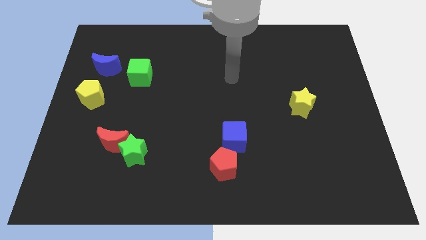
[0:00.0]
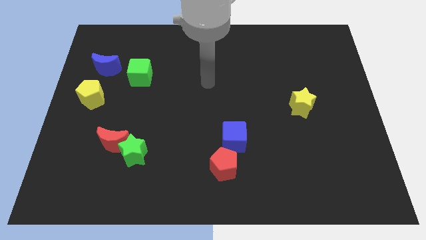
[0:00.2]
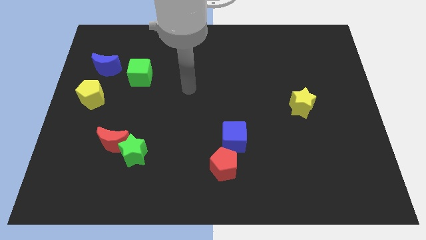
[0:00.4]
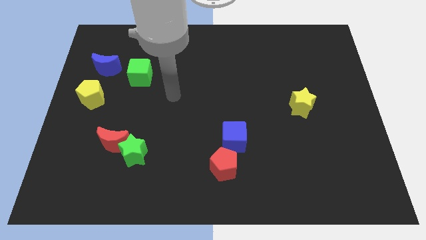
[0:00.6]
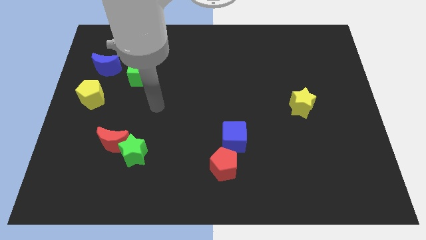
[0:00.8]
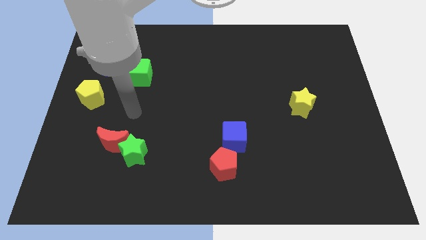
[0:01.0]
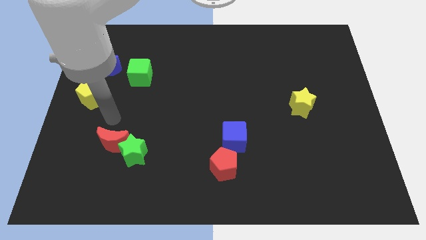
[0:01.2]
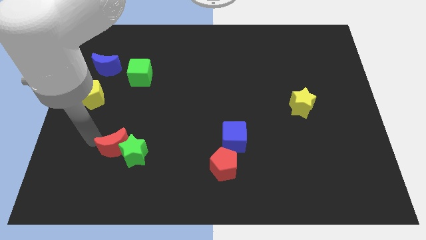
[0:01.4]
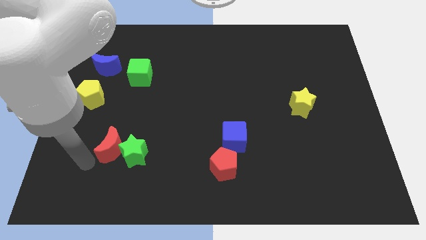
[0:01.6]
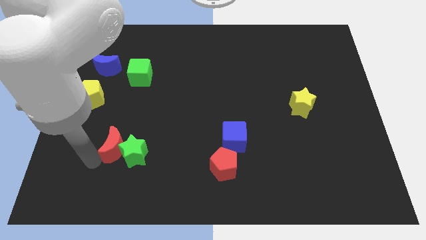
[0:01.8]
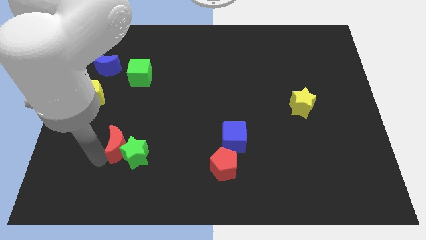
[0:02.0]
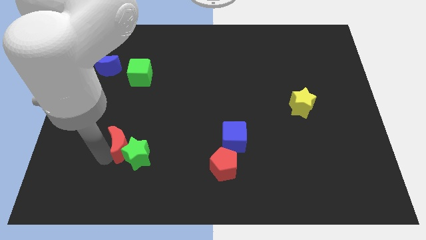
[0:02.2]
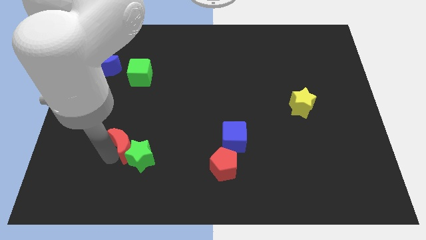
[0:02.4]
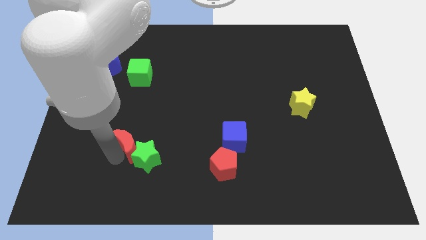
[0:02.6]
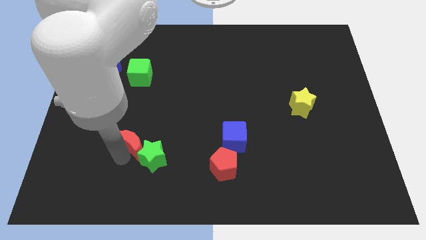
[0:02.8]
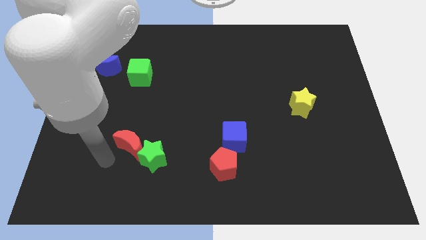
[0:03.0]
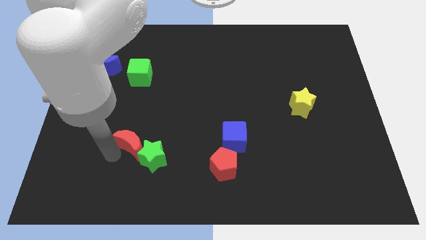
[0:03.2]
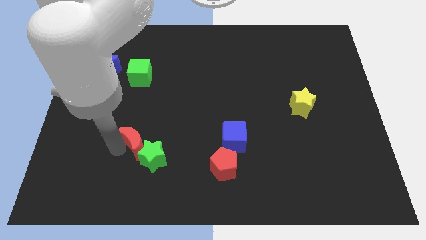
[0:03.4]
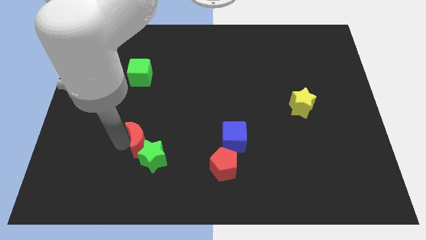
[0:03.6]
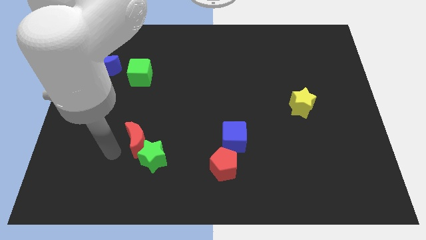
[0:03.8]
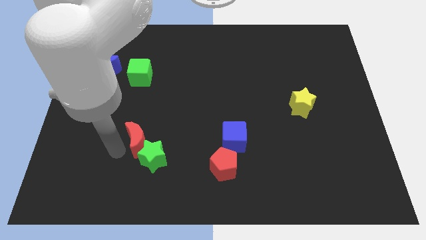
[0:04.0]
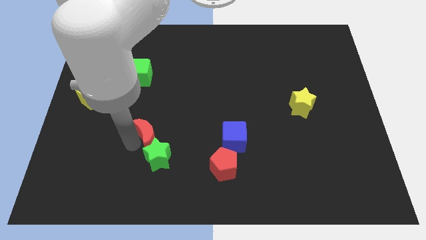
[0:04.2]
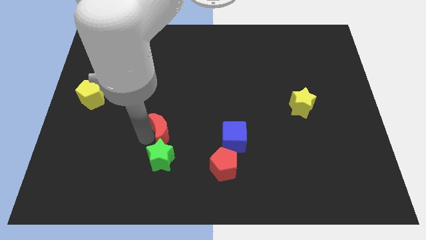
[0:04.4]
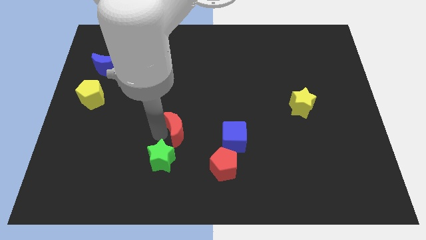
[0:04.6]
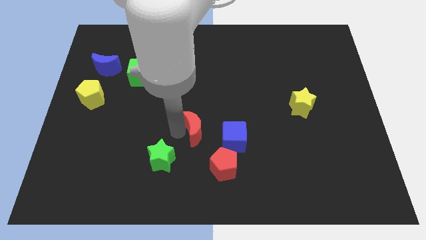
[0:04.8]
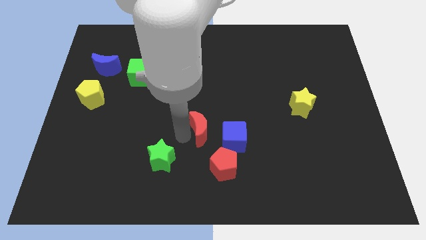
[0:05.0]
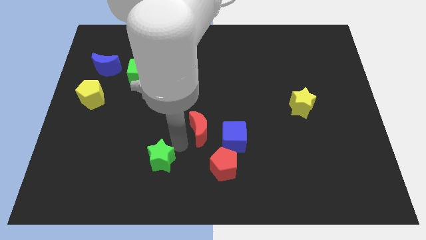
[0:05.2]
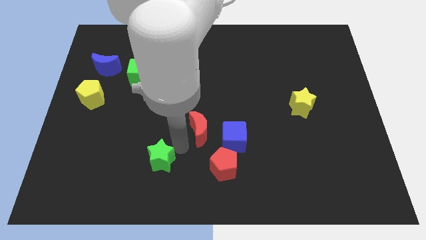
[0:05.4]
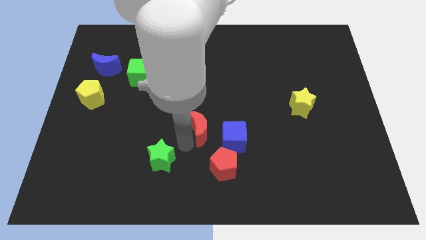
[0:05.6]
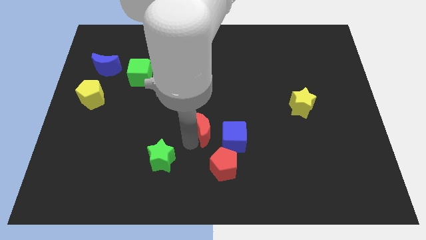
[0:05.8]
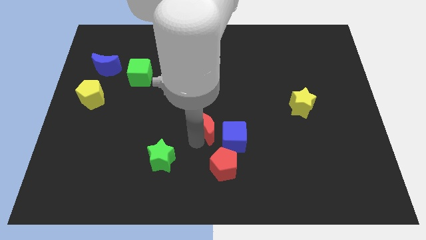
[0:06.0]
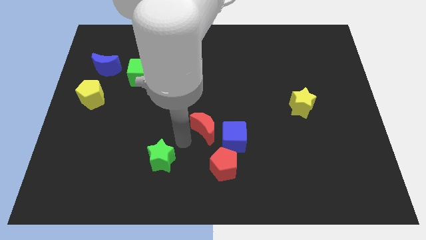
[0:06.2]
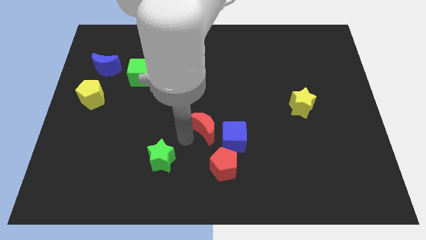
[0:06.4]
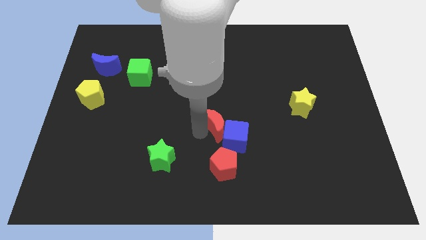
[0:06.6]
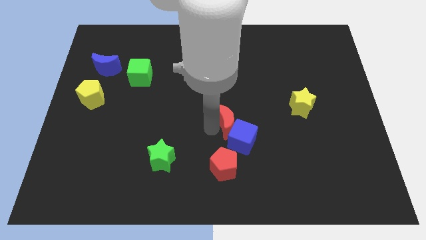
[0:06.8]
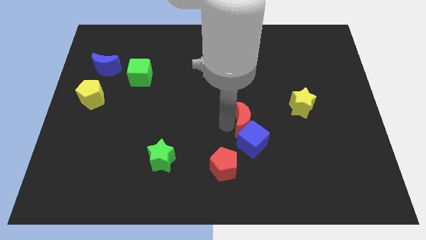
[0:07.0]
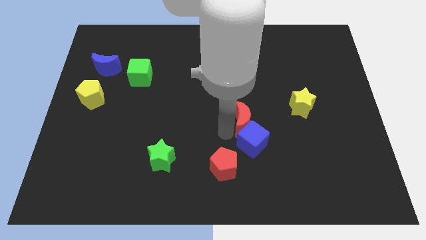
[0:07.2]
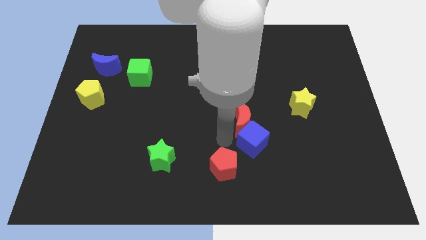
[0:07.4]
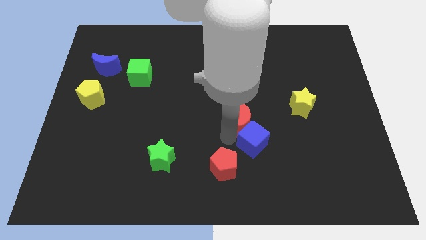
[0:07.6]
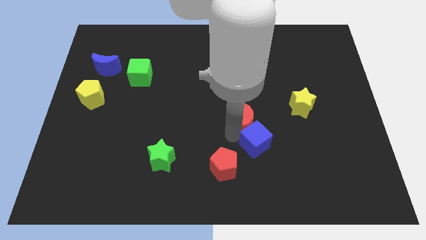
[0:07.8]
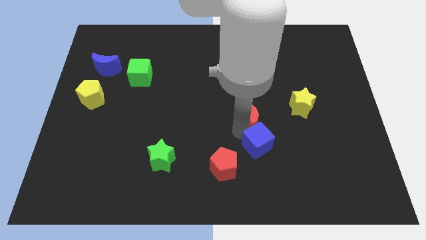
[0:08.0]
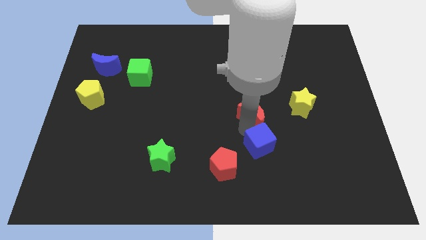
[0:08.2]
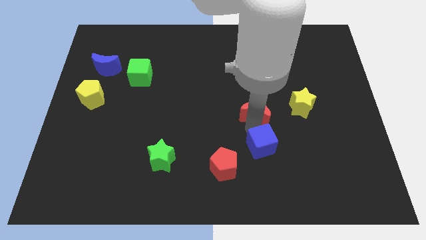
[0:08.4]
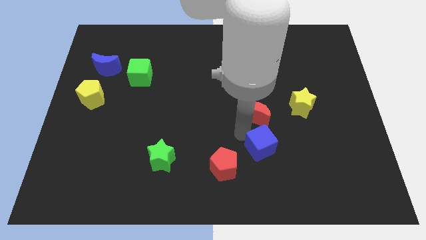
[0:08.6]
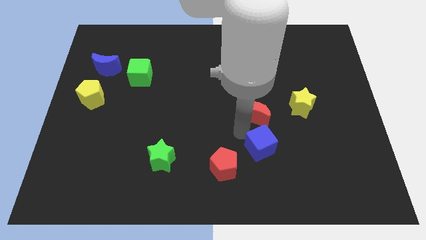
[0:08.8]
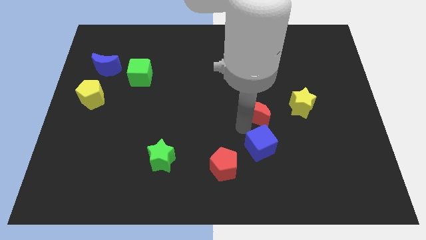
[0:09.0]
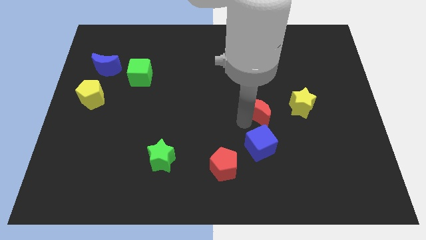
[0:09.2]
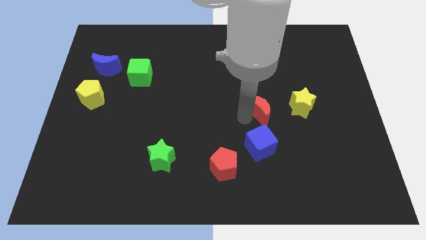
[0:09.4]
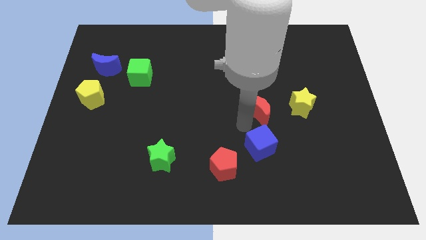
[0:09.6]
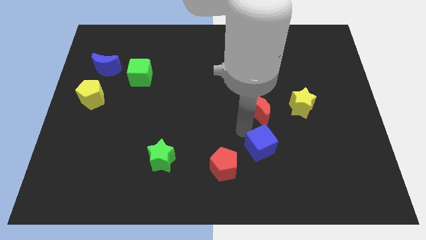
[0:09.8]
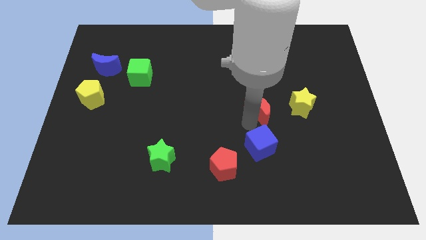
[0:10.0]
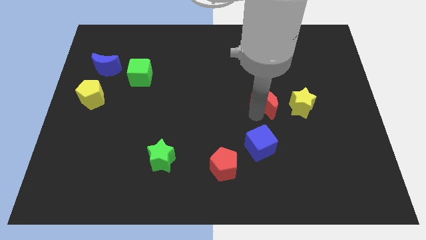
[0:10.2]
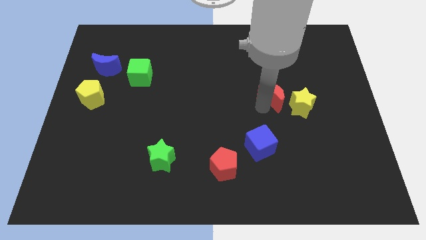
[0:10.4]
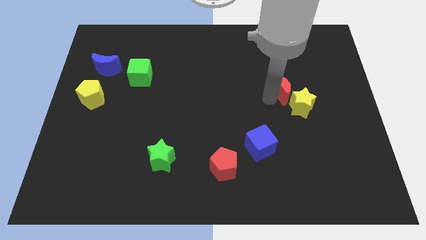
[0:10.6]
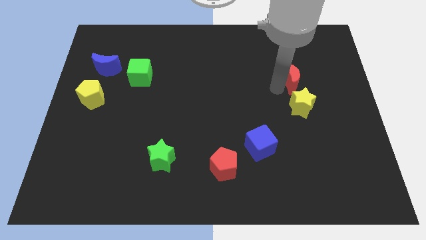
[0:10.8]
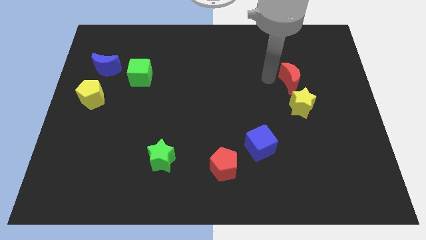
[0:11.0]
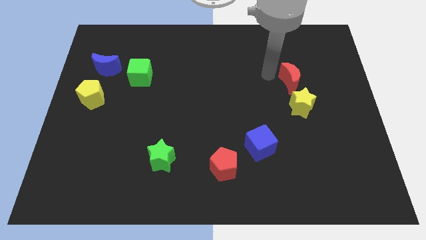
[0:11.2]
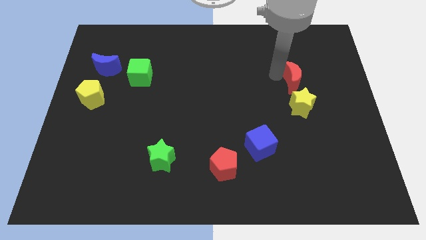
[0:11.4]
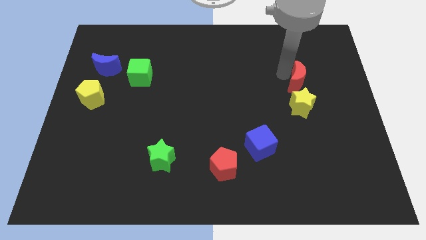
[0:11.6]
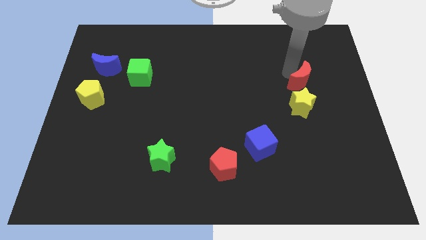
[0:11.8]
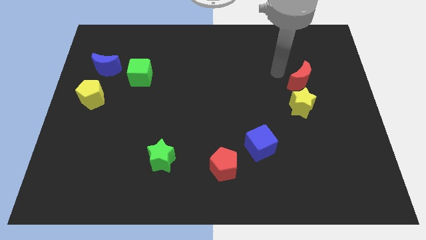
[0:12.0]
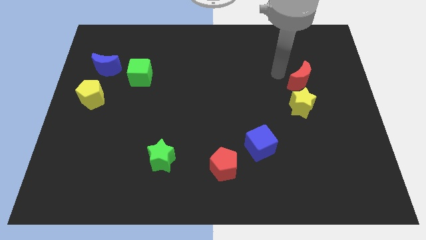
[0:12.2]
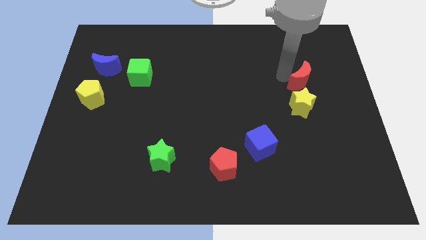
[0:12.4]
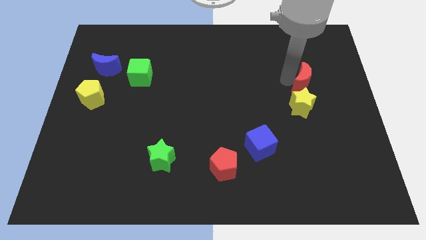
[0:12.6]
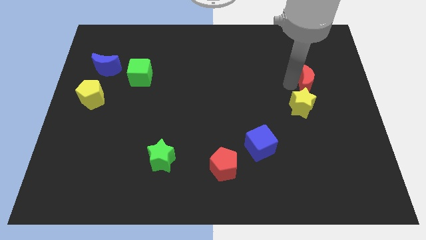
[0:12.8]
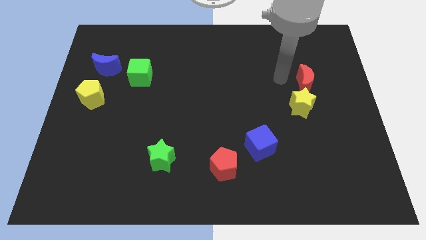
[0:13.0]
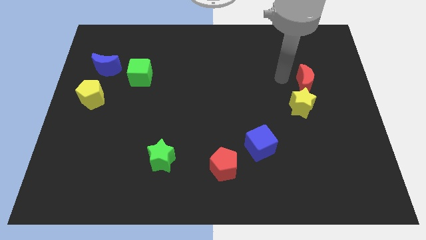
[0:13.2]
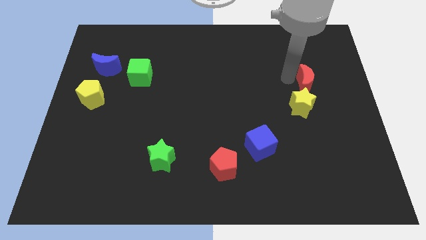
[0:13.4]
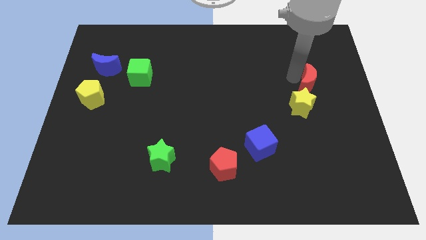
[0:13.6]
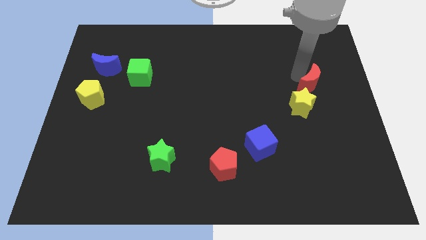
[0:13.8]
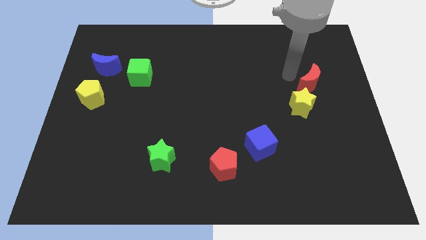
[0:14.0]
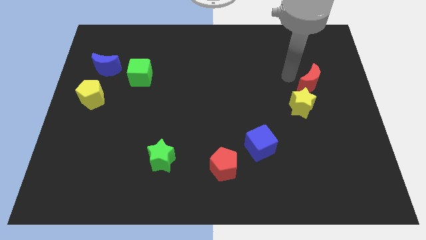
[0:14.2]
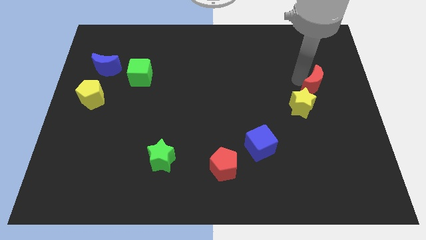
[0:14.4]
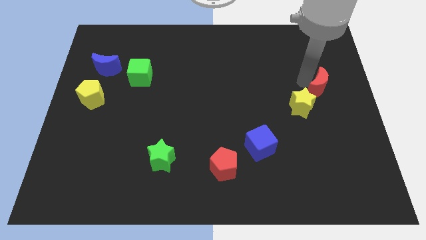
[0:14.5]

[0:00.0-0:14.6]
slide the red moon to the right side of the board
